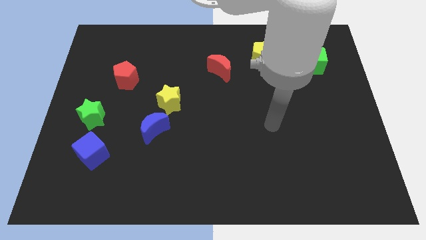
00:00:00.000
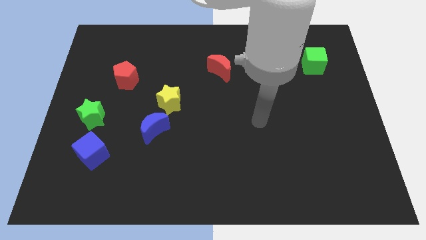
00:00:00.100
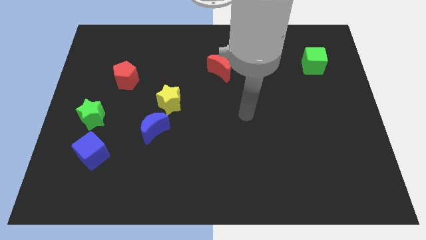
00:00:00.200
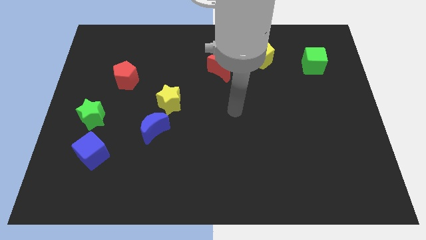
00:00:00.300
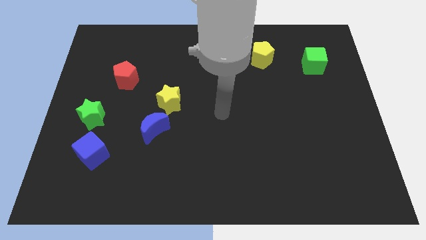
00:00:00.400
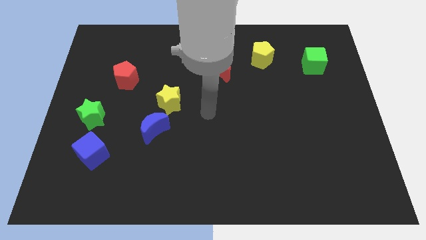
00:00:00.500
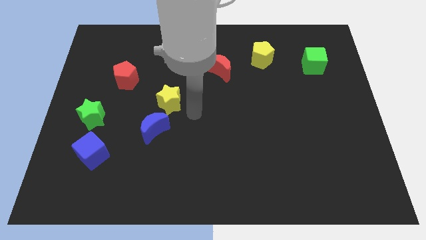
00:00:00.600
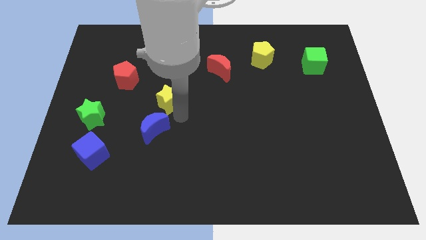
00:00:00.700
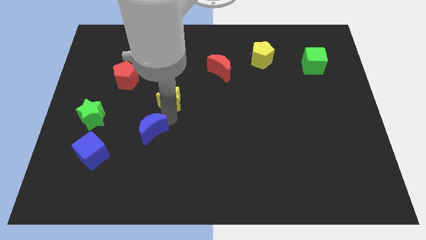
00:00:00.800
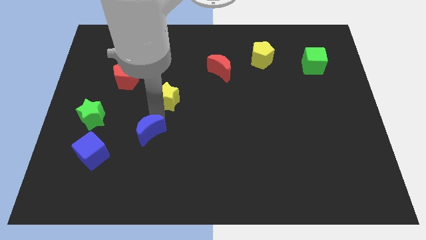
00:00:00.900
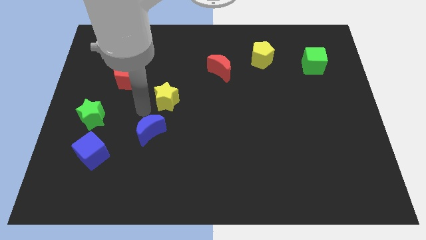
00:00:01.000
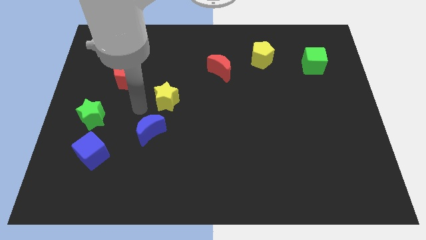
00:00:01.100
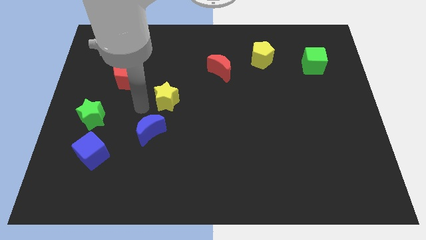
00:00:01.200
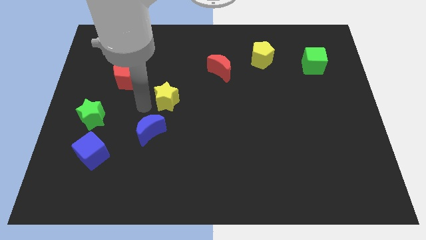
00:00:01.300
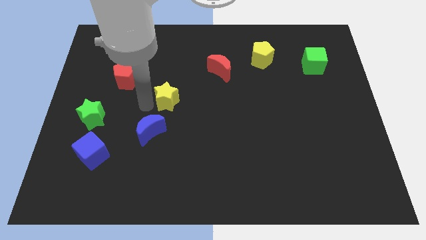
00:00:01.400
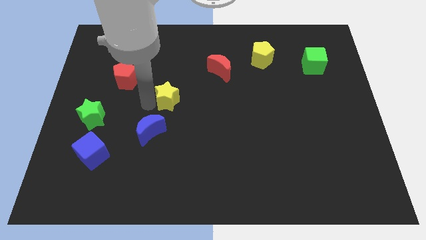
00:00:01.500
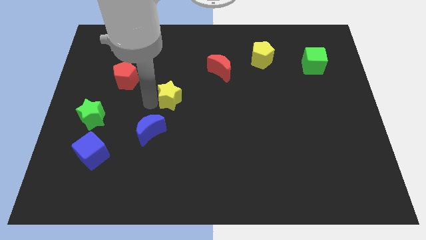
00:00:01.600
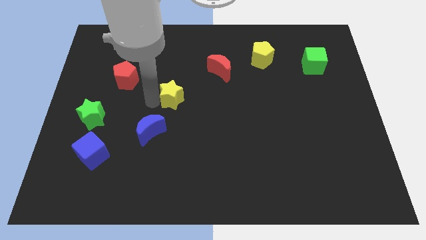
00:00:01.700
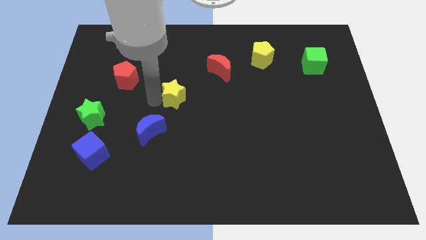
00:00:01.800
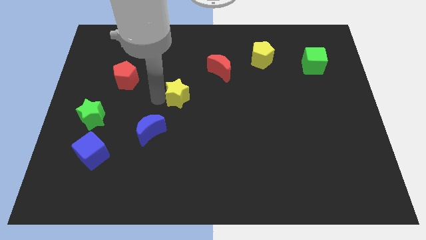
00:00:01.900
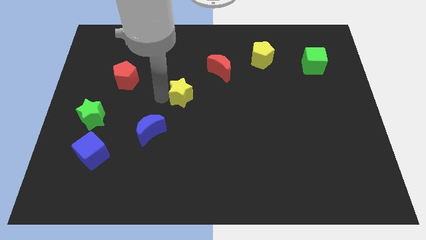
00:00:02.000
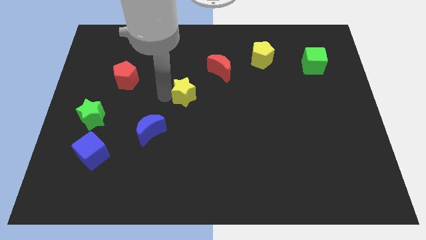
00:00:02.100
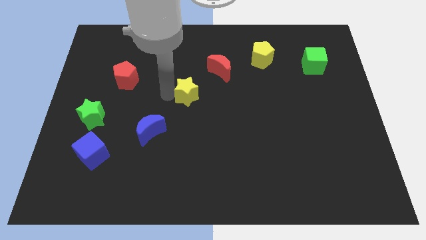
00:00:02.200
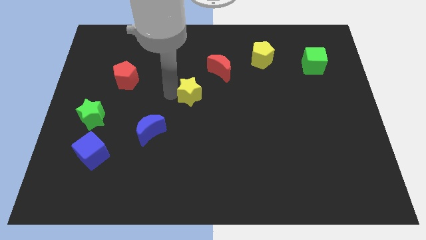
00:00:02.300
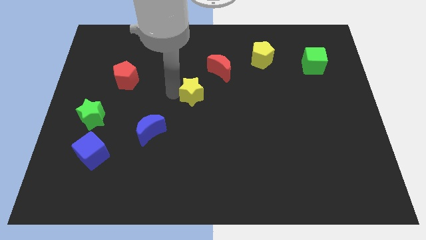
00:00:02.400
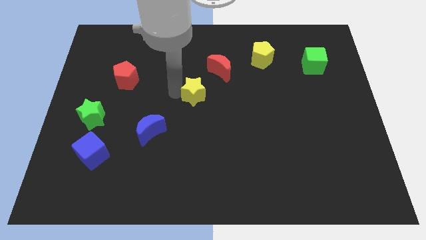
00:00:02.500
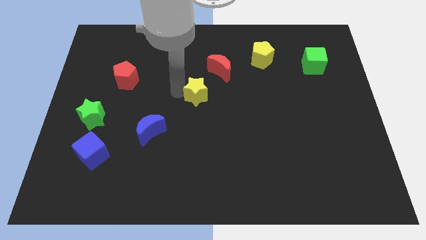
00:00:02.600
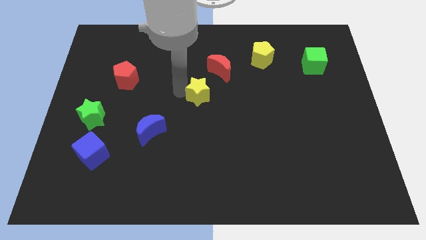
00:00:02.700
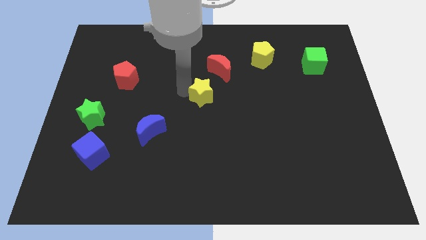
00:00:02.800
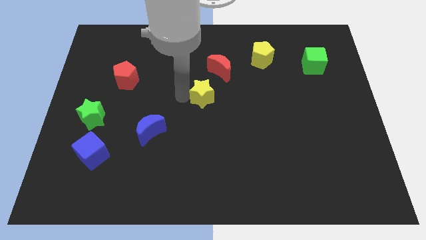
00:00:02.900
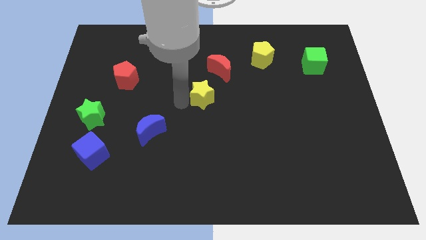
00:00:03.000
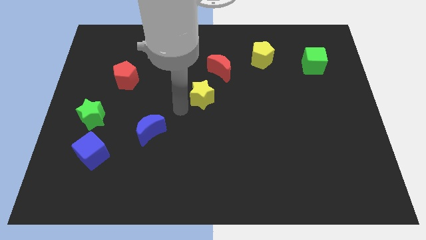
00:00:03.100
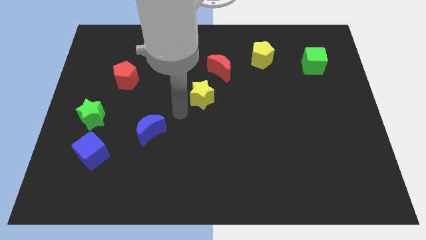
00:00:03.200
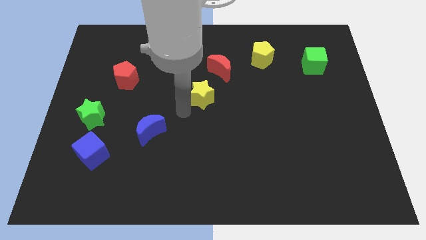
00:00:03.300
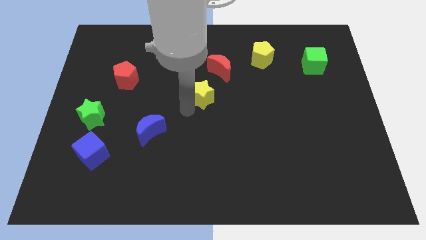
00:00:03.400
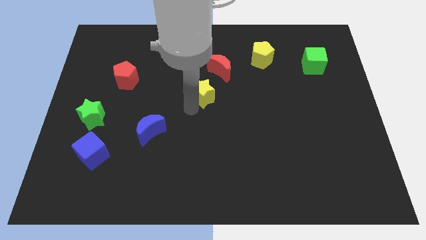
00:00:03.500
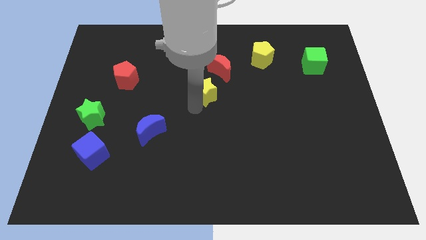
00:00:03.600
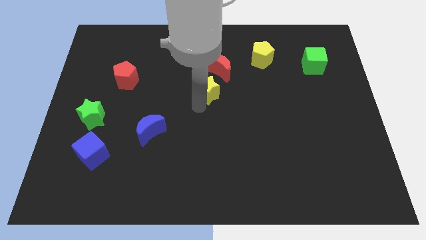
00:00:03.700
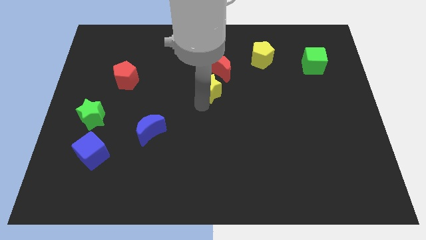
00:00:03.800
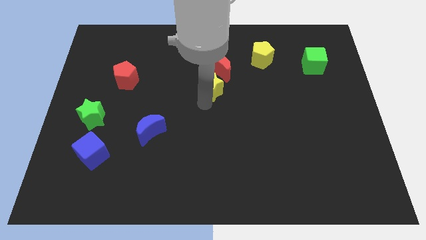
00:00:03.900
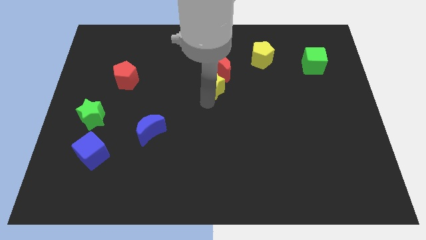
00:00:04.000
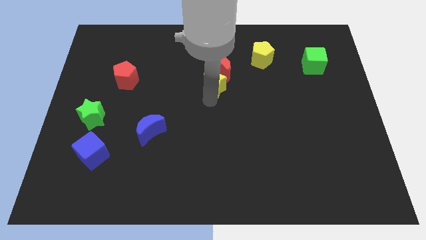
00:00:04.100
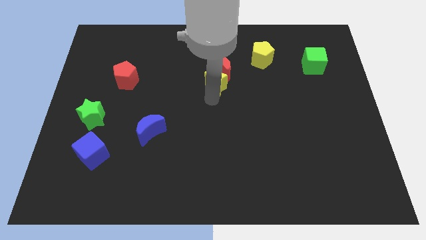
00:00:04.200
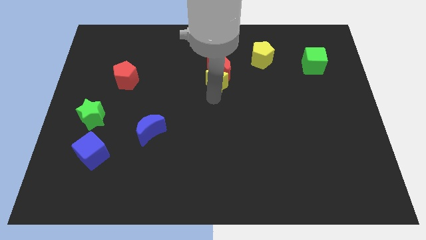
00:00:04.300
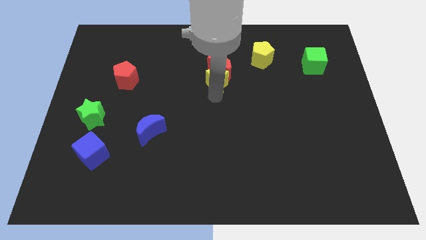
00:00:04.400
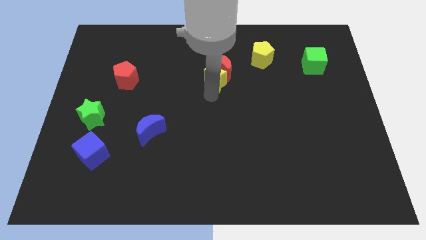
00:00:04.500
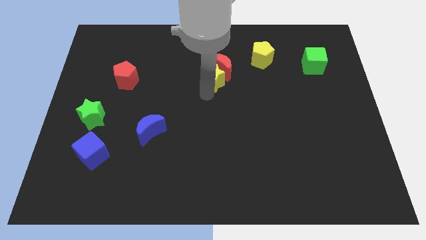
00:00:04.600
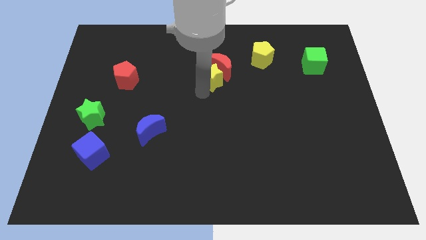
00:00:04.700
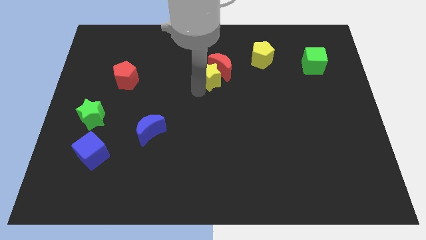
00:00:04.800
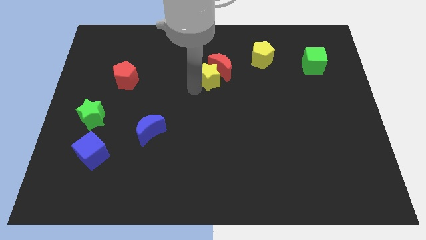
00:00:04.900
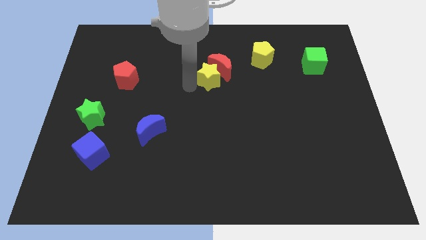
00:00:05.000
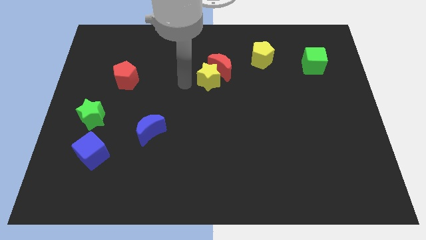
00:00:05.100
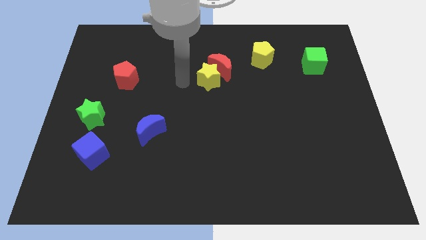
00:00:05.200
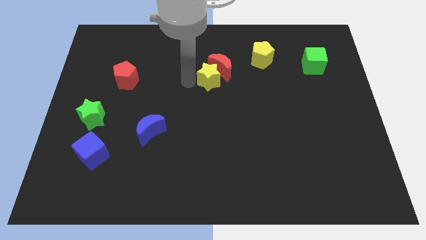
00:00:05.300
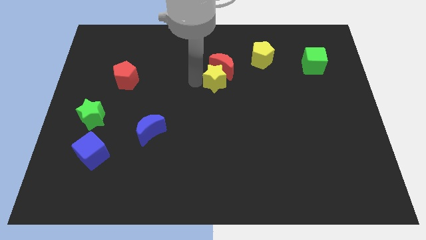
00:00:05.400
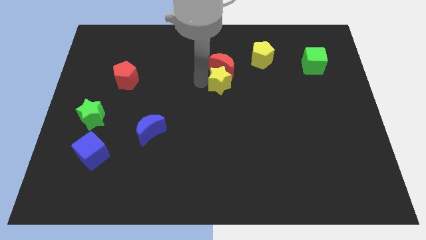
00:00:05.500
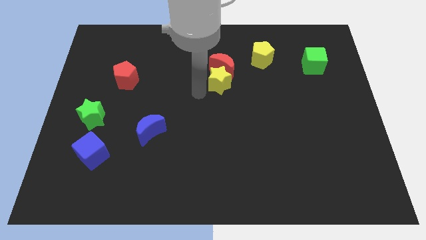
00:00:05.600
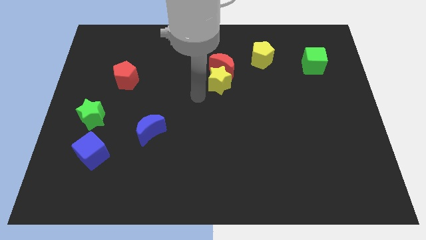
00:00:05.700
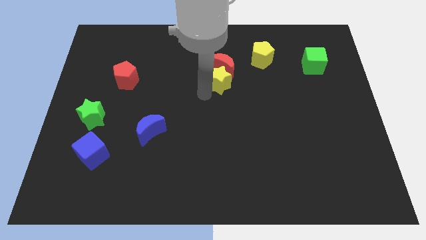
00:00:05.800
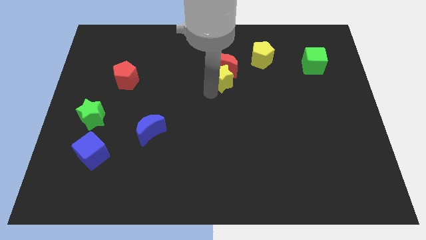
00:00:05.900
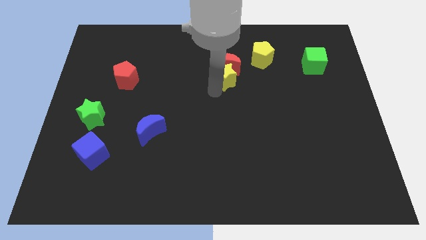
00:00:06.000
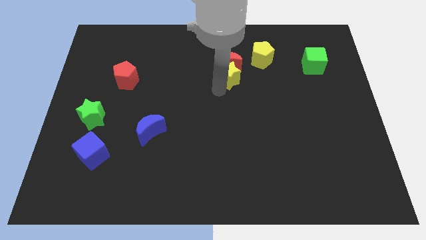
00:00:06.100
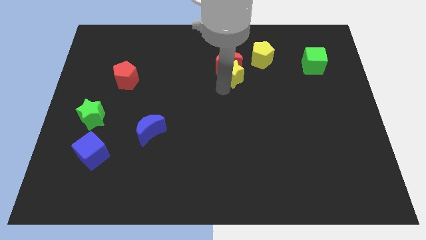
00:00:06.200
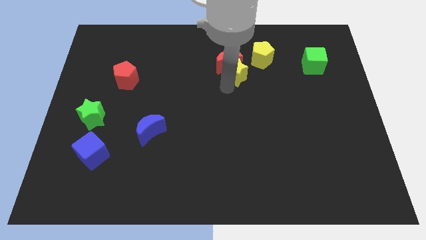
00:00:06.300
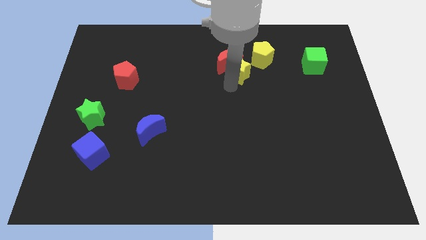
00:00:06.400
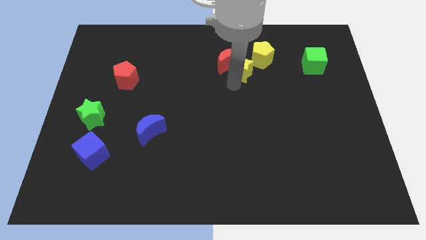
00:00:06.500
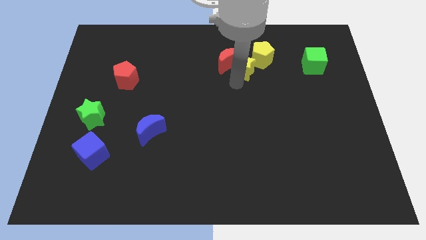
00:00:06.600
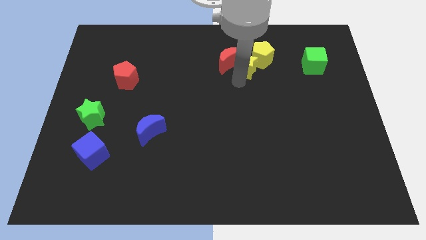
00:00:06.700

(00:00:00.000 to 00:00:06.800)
slide the yellow star towards the yellow pentagon

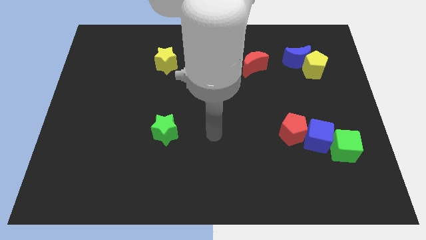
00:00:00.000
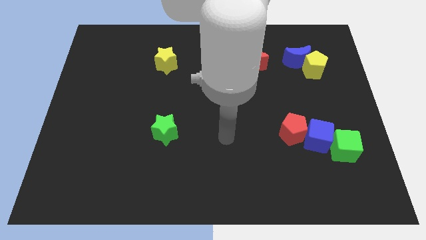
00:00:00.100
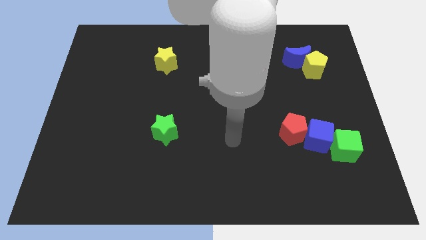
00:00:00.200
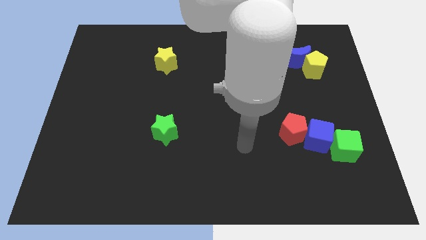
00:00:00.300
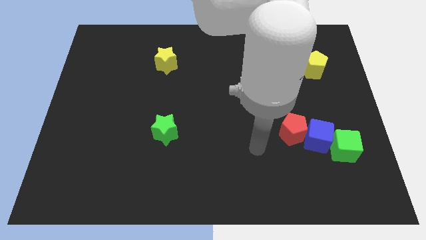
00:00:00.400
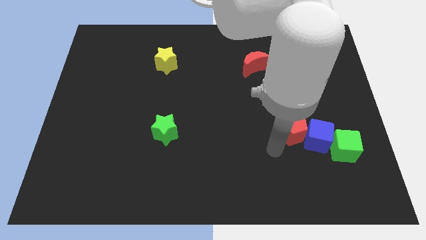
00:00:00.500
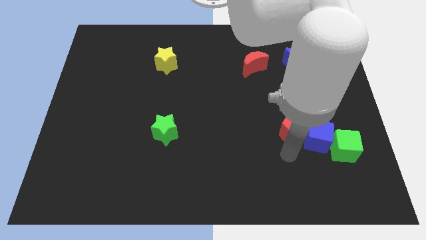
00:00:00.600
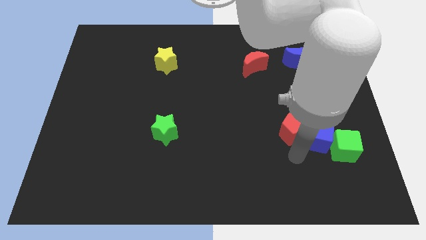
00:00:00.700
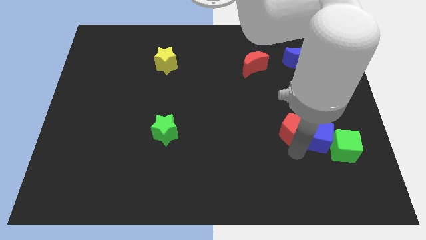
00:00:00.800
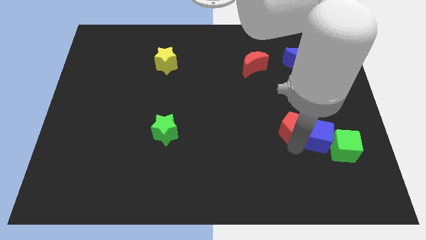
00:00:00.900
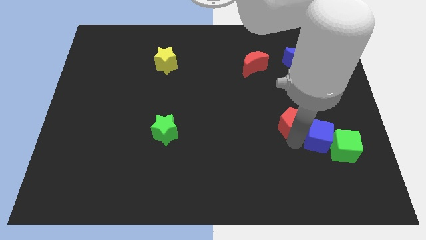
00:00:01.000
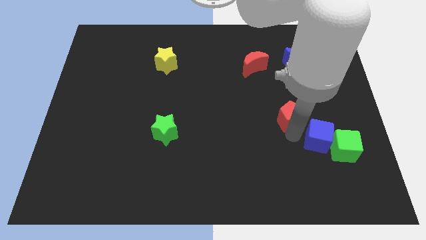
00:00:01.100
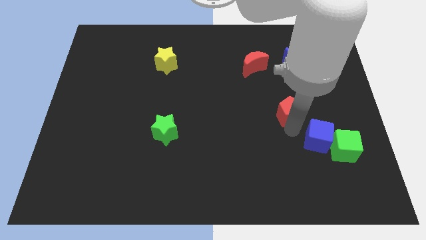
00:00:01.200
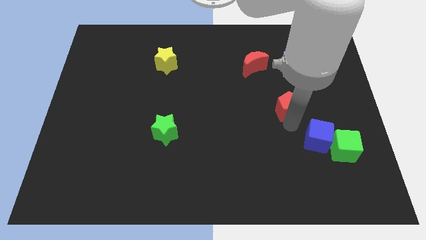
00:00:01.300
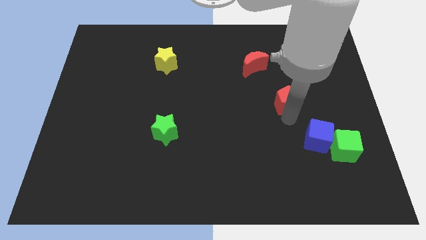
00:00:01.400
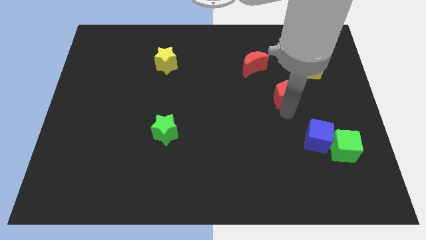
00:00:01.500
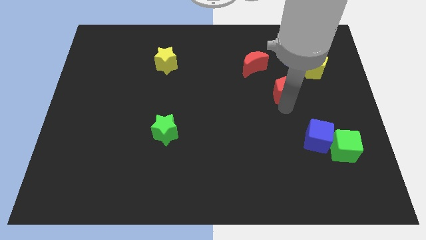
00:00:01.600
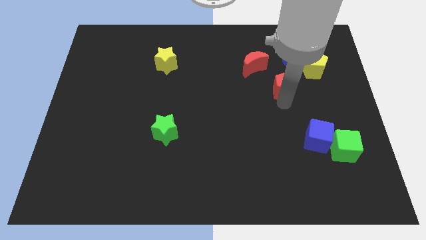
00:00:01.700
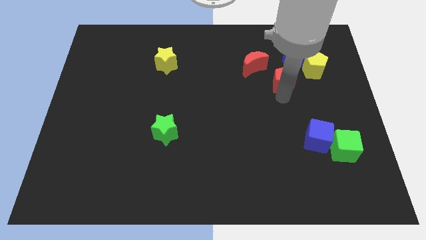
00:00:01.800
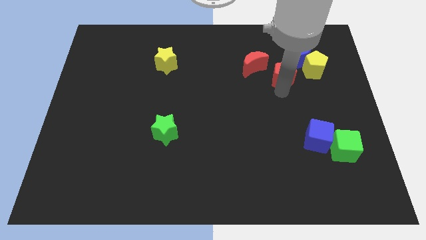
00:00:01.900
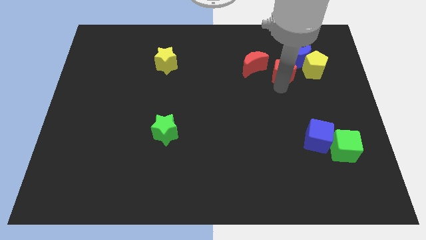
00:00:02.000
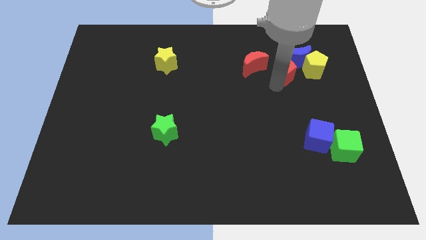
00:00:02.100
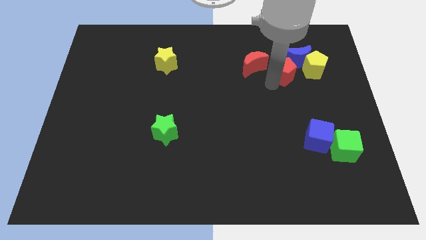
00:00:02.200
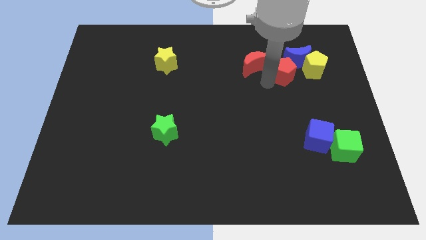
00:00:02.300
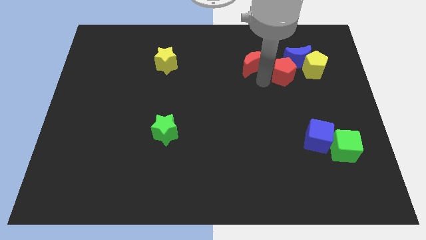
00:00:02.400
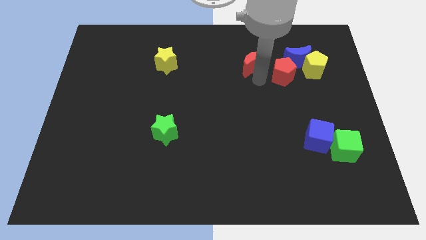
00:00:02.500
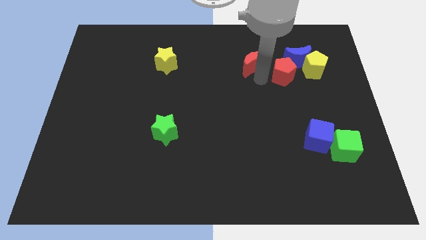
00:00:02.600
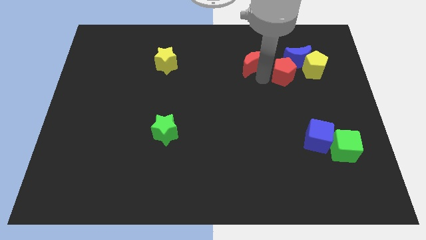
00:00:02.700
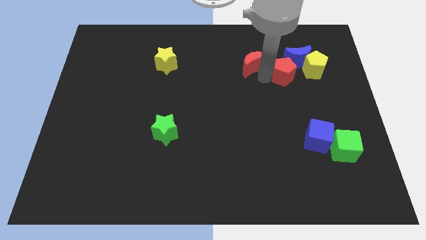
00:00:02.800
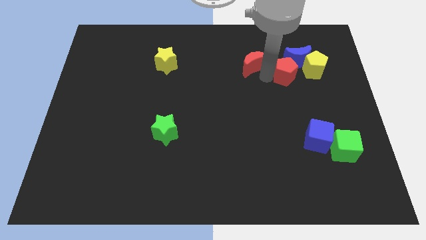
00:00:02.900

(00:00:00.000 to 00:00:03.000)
push the red pentagon close to the blue moon
